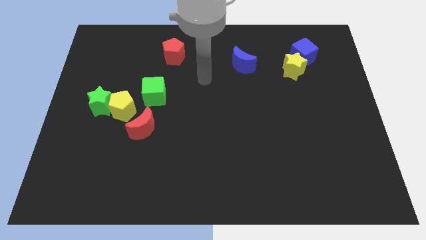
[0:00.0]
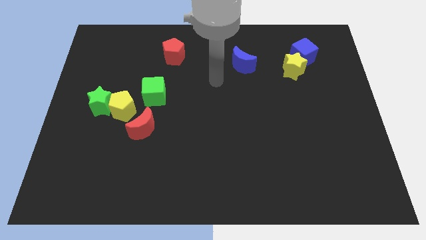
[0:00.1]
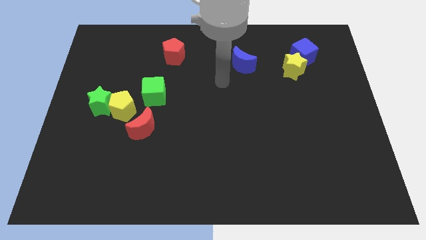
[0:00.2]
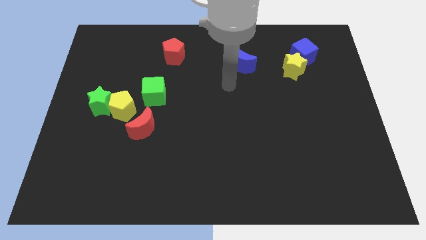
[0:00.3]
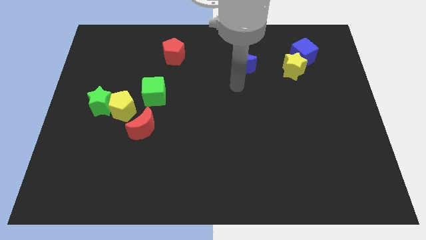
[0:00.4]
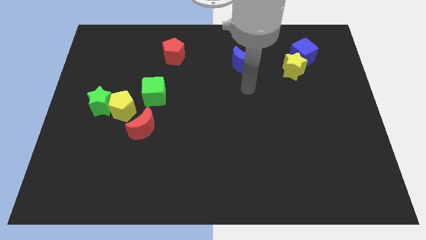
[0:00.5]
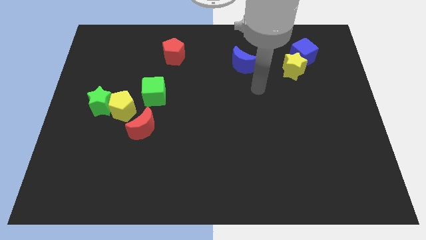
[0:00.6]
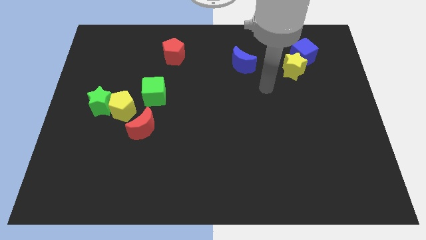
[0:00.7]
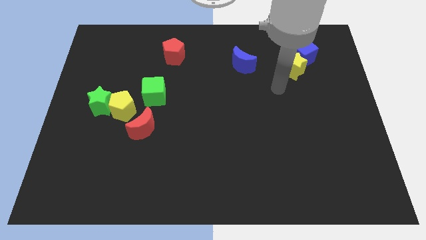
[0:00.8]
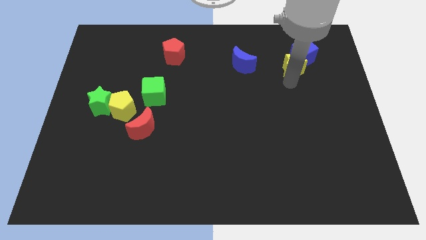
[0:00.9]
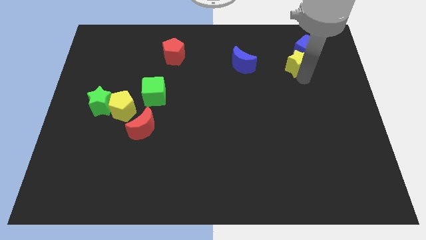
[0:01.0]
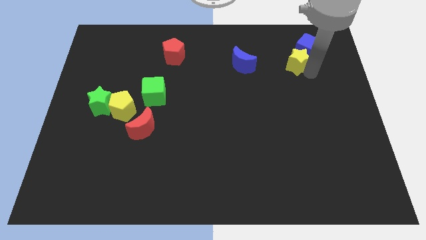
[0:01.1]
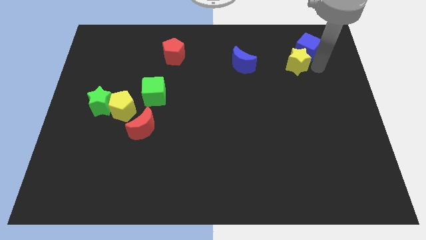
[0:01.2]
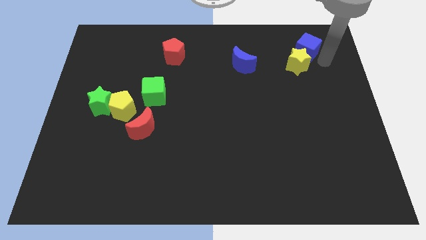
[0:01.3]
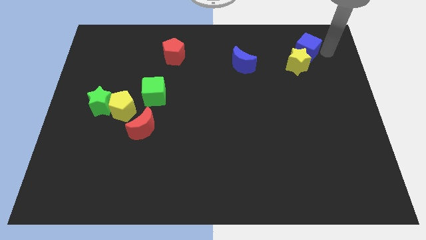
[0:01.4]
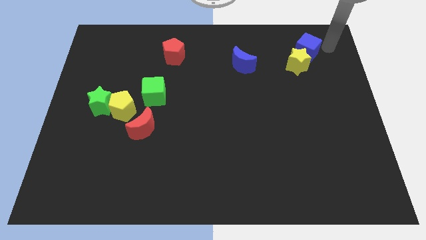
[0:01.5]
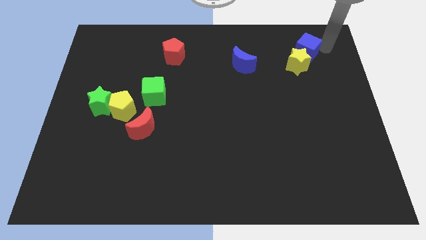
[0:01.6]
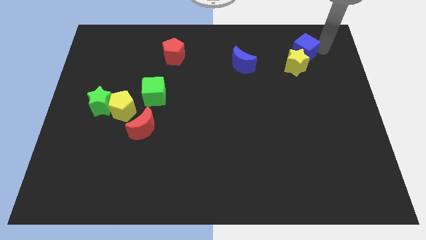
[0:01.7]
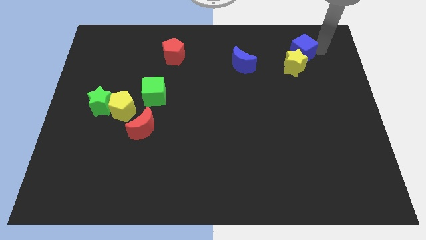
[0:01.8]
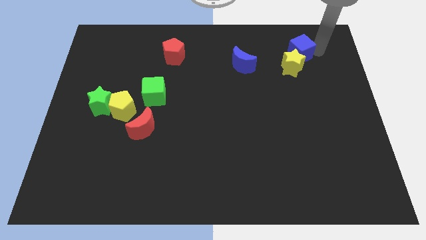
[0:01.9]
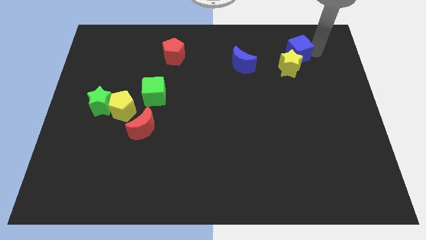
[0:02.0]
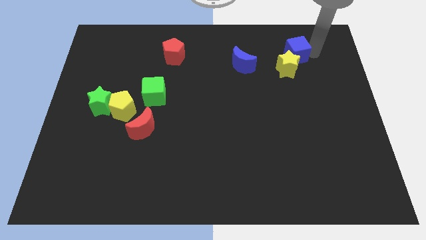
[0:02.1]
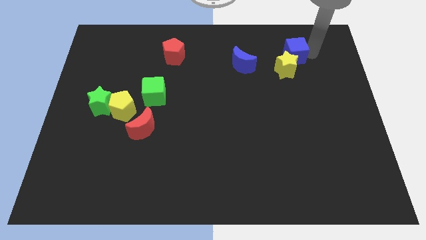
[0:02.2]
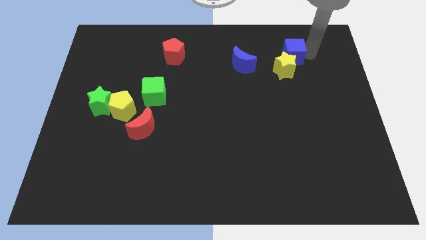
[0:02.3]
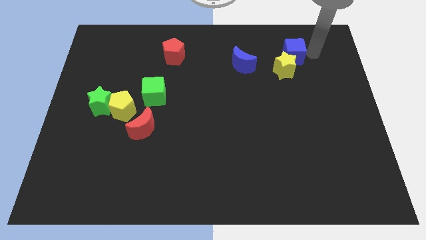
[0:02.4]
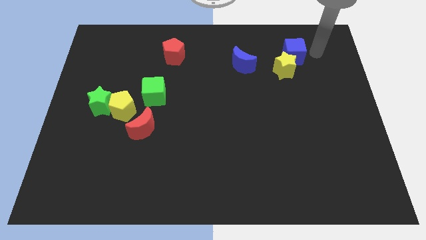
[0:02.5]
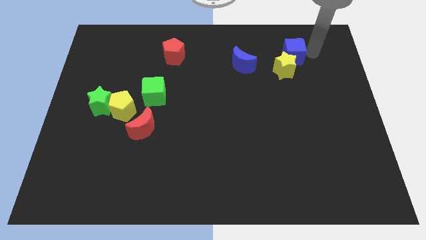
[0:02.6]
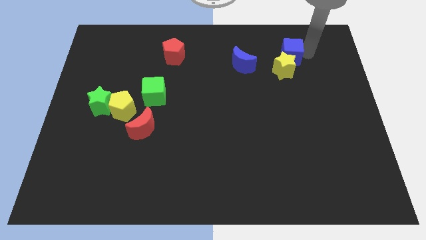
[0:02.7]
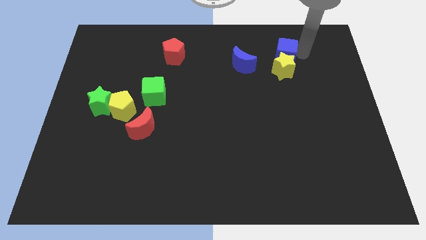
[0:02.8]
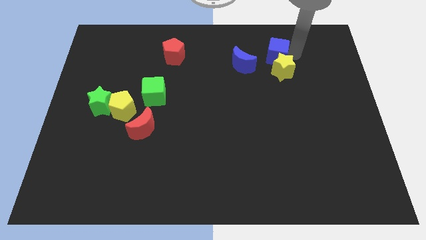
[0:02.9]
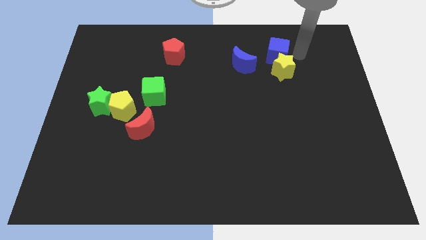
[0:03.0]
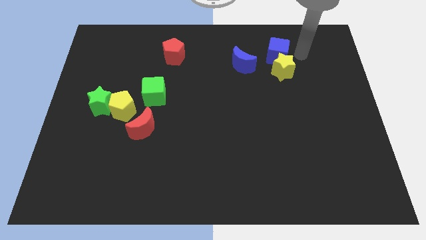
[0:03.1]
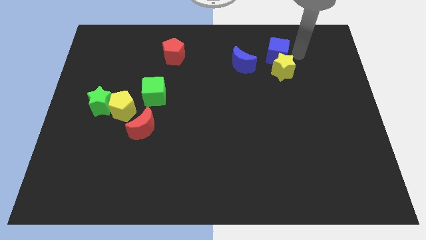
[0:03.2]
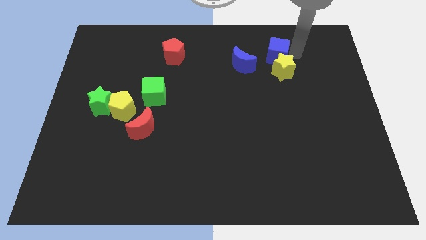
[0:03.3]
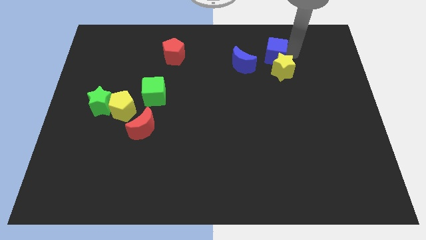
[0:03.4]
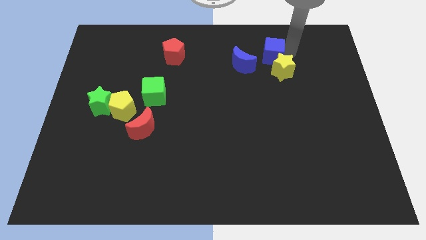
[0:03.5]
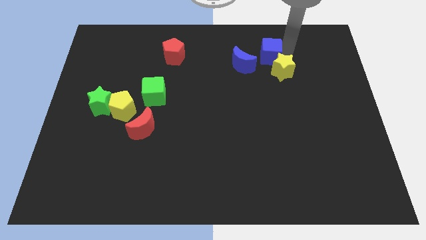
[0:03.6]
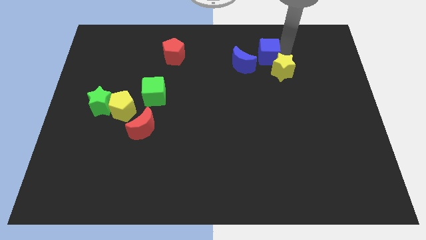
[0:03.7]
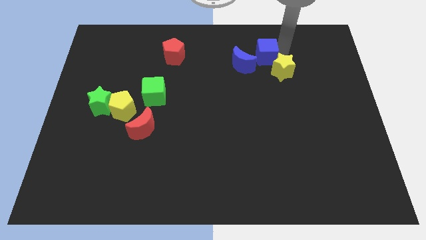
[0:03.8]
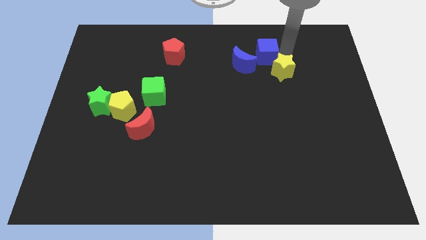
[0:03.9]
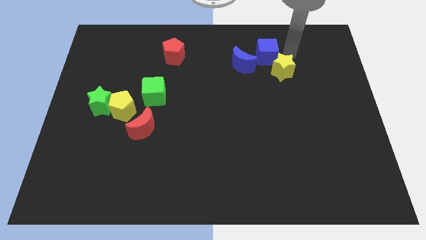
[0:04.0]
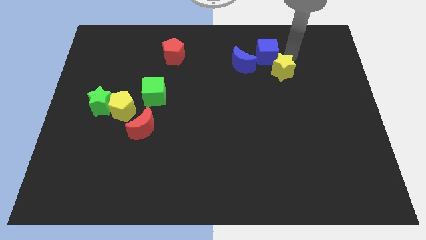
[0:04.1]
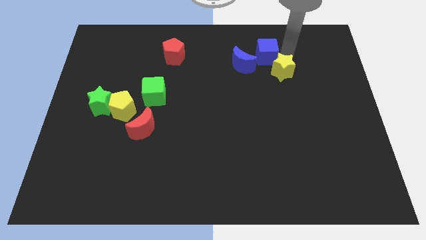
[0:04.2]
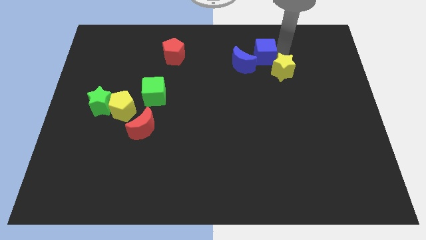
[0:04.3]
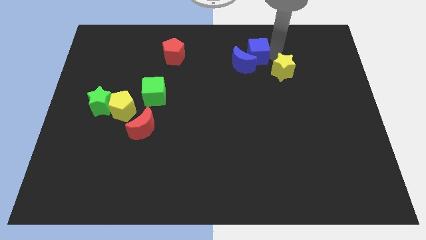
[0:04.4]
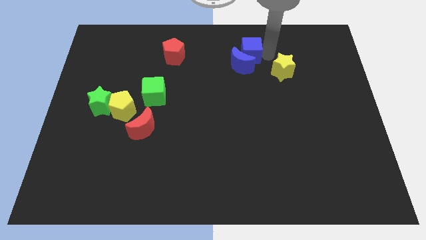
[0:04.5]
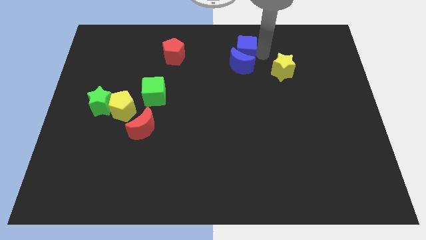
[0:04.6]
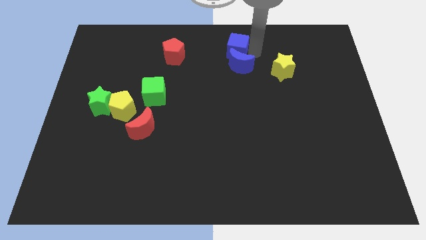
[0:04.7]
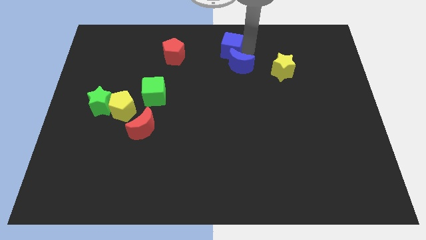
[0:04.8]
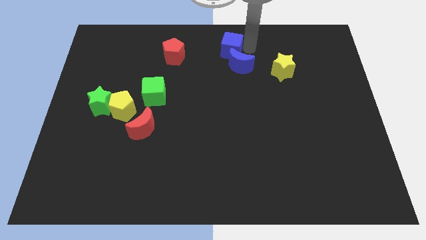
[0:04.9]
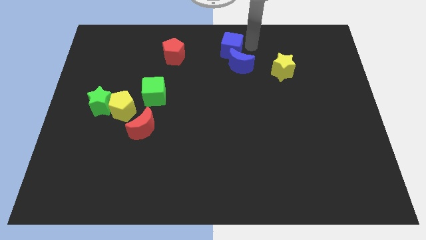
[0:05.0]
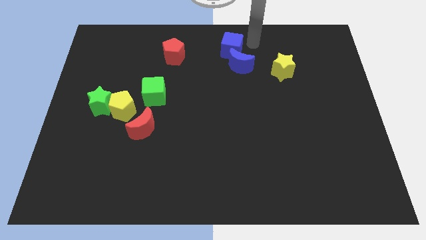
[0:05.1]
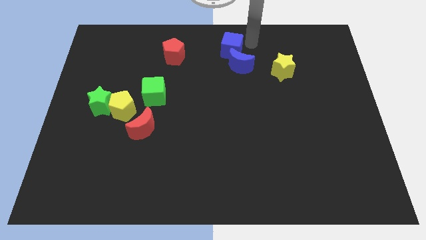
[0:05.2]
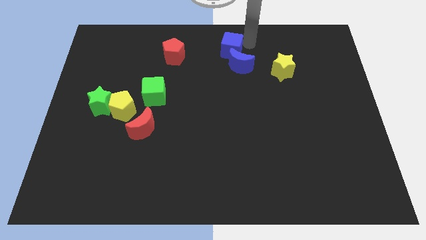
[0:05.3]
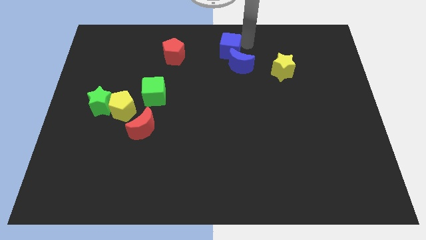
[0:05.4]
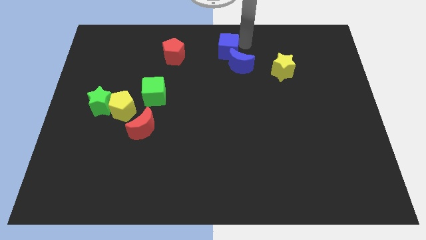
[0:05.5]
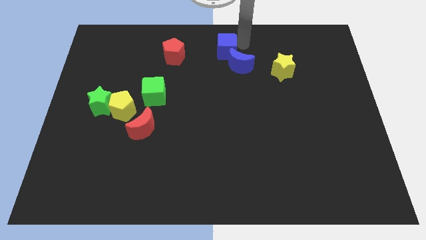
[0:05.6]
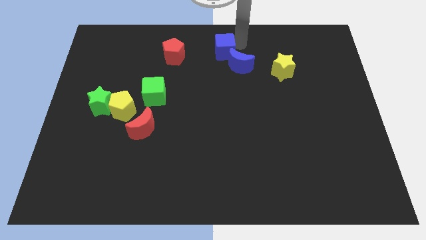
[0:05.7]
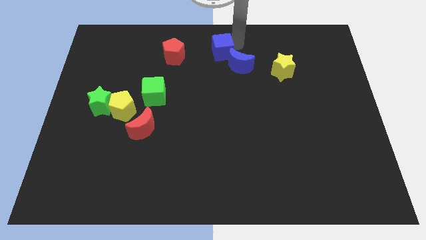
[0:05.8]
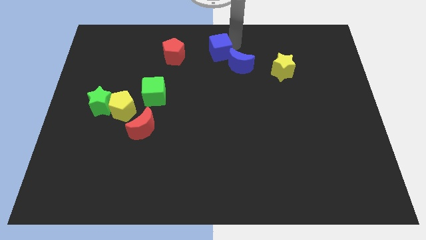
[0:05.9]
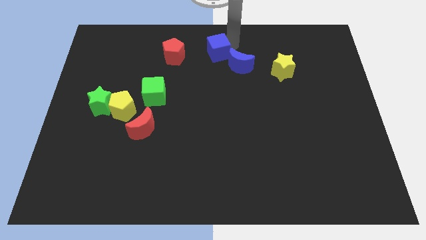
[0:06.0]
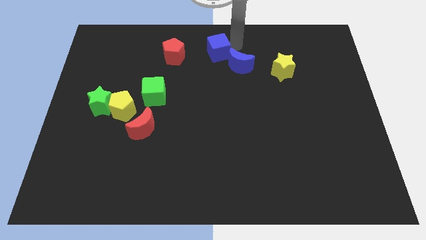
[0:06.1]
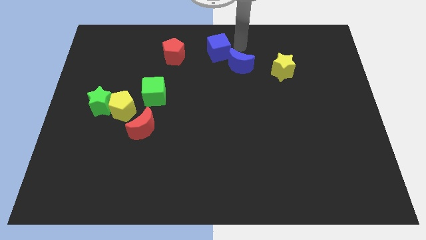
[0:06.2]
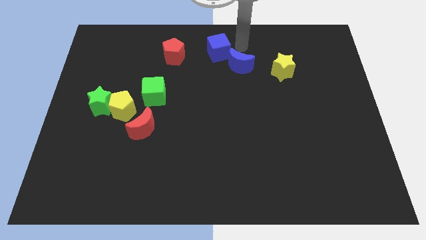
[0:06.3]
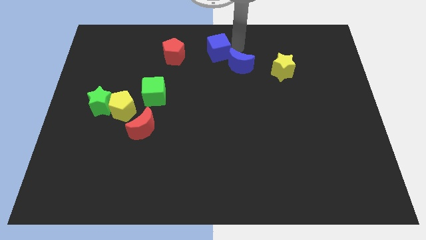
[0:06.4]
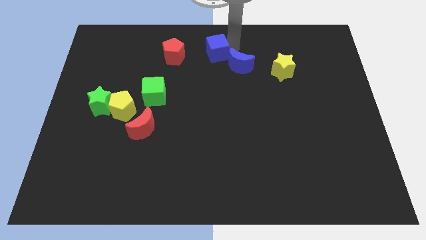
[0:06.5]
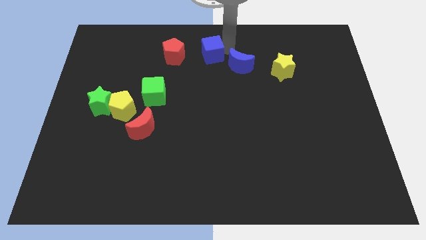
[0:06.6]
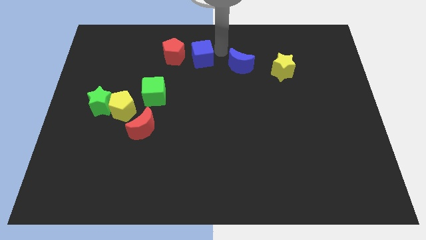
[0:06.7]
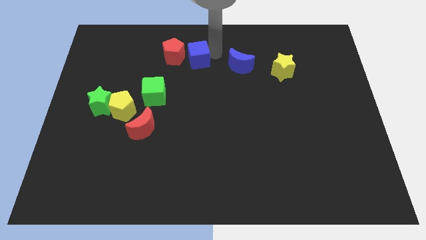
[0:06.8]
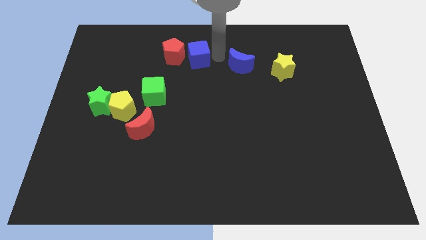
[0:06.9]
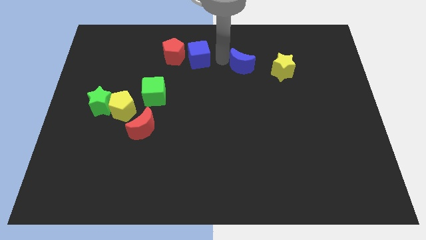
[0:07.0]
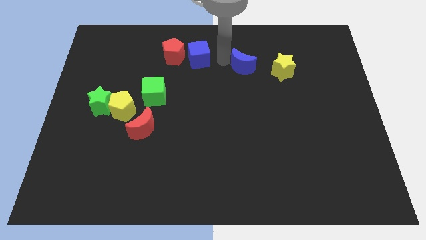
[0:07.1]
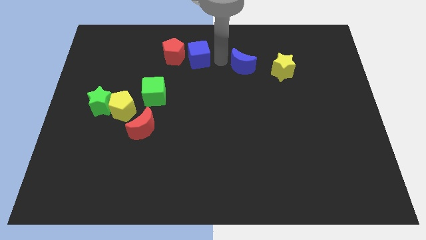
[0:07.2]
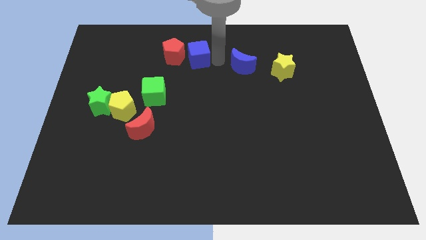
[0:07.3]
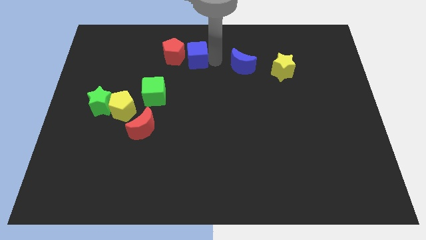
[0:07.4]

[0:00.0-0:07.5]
slide the blue cube to the red pentagon
